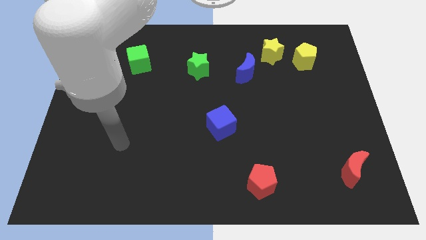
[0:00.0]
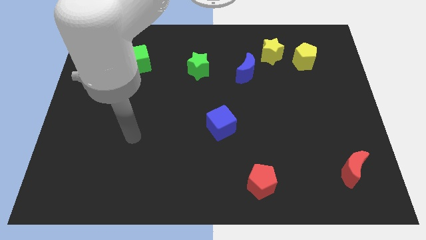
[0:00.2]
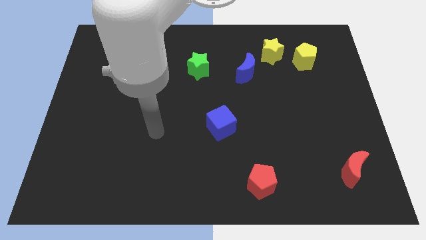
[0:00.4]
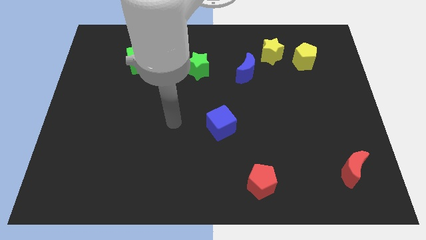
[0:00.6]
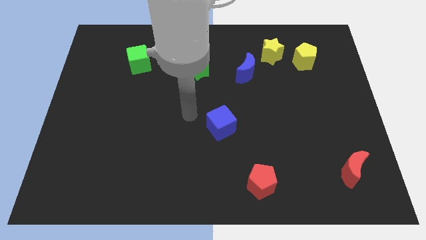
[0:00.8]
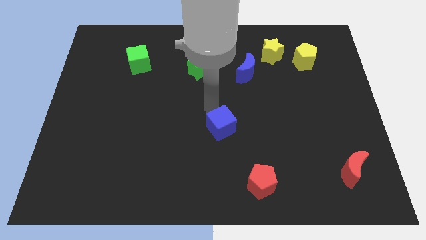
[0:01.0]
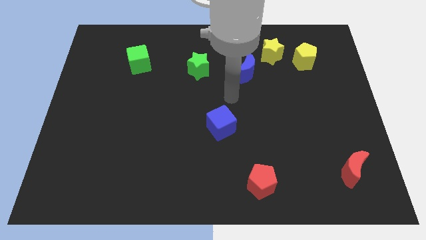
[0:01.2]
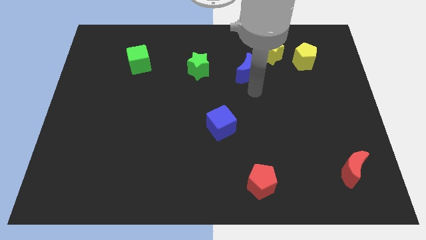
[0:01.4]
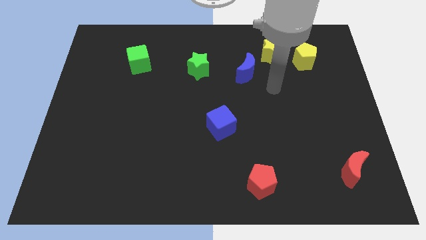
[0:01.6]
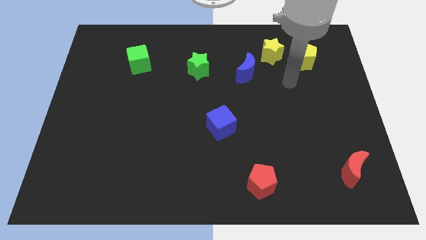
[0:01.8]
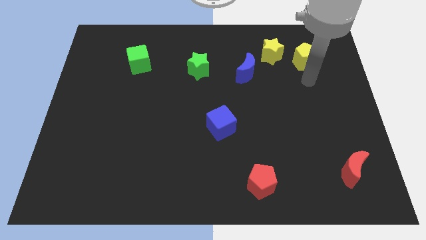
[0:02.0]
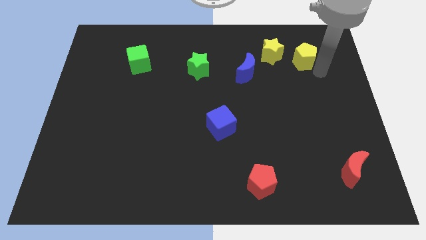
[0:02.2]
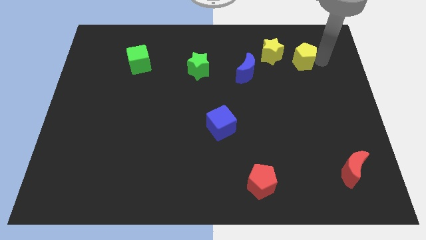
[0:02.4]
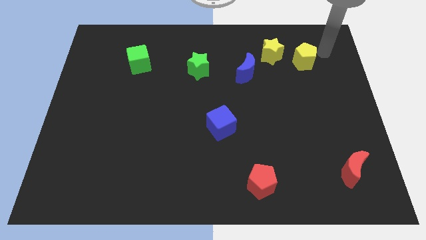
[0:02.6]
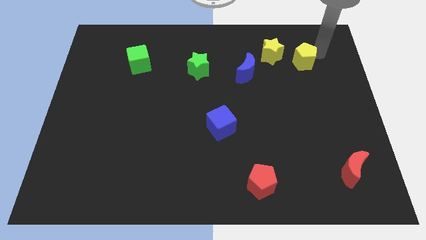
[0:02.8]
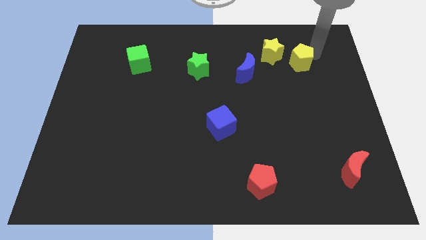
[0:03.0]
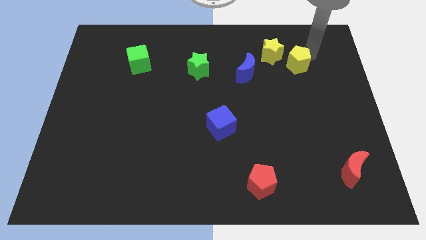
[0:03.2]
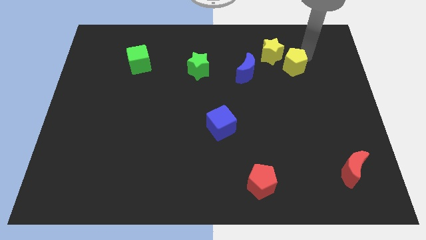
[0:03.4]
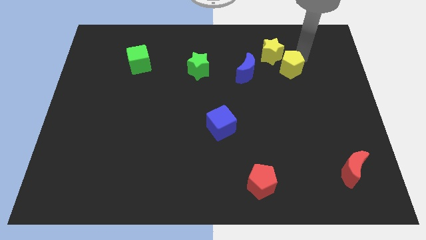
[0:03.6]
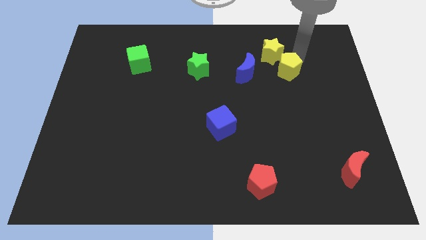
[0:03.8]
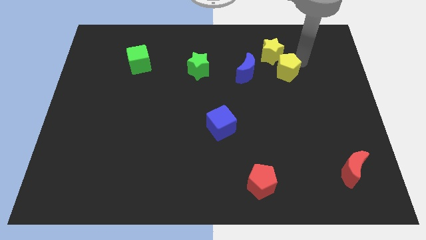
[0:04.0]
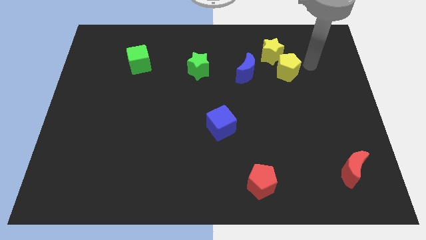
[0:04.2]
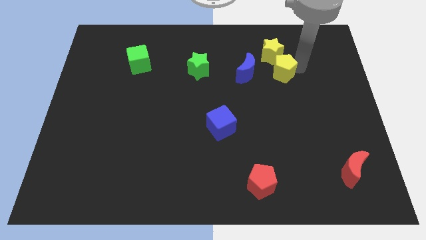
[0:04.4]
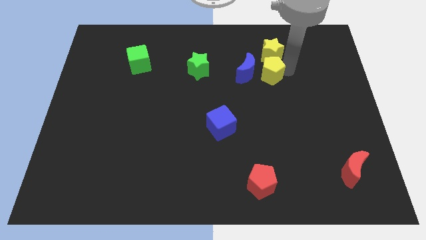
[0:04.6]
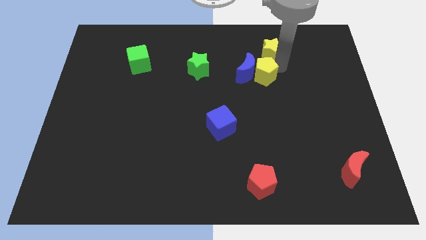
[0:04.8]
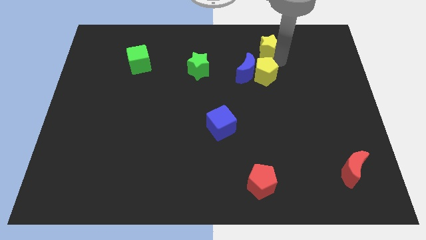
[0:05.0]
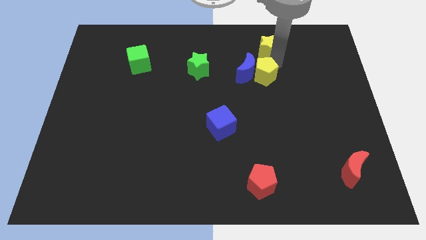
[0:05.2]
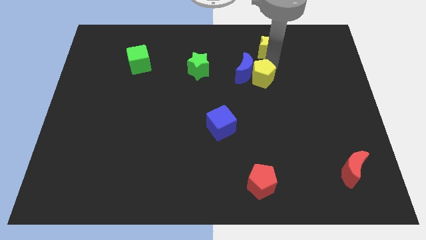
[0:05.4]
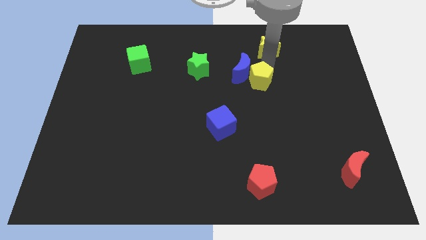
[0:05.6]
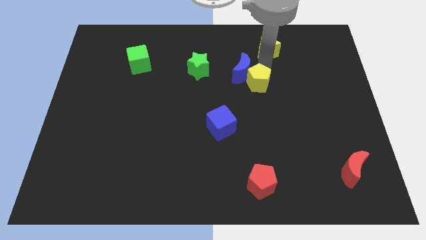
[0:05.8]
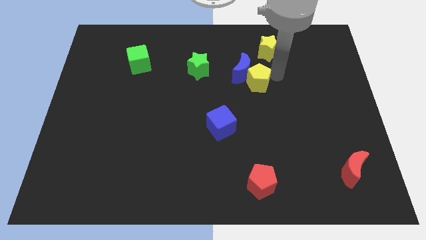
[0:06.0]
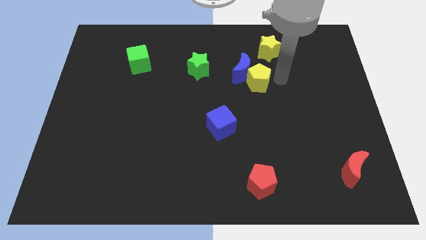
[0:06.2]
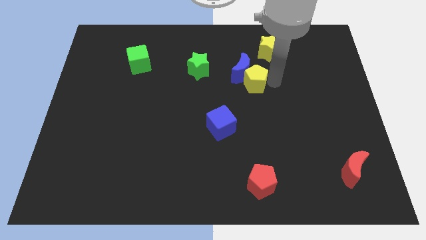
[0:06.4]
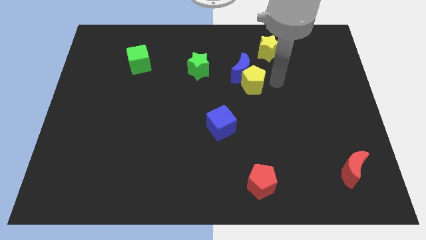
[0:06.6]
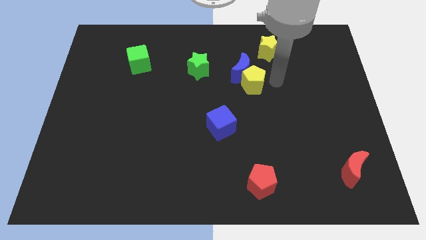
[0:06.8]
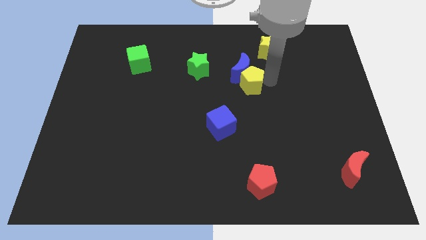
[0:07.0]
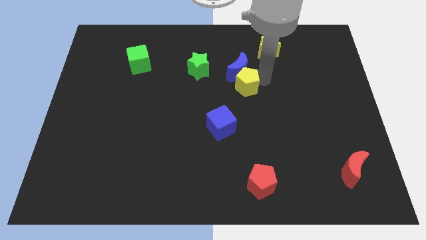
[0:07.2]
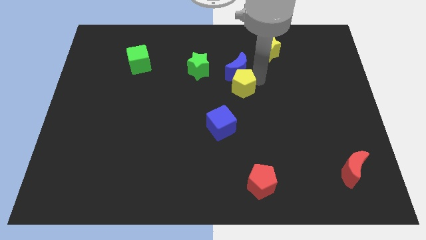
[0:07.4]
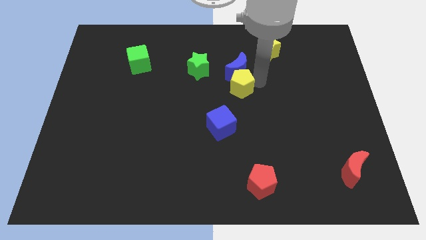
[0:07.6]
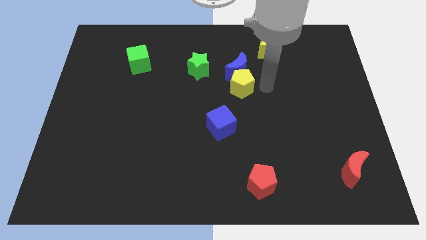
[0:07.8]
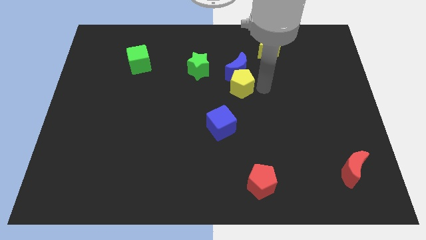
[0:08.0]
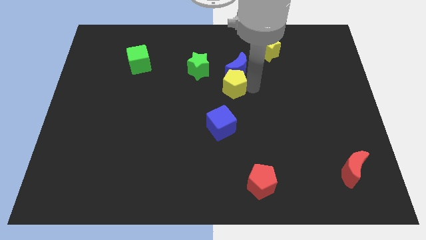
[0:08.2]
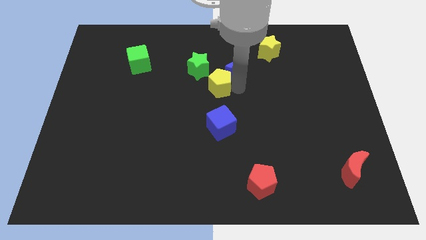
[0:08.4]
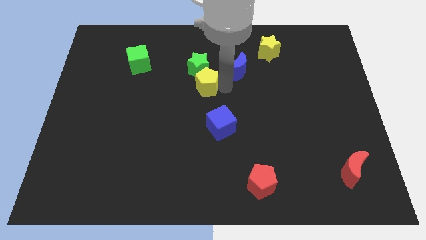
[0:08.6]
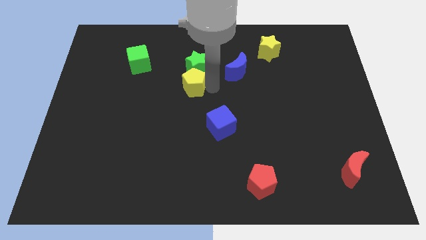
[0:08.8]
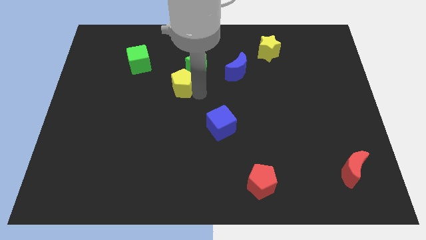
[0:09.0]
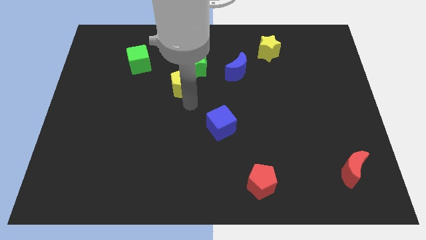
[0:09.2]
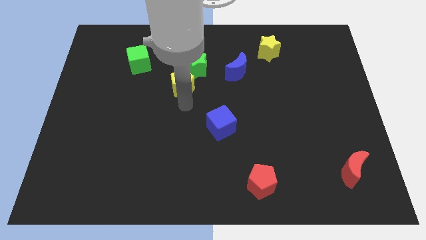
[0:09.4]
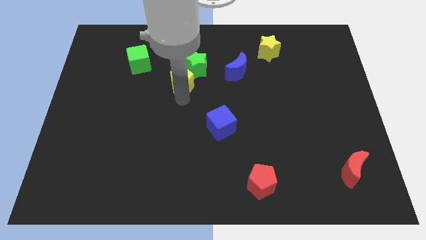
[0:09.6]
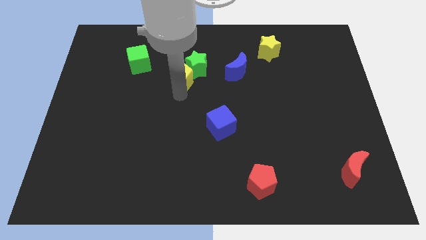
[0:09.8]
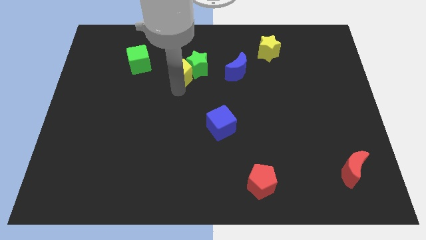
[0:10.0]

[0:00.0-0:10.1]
push the yellow pentagon right of the green cube

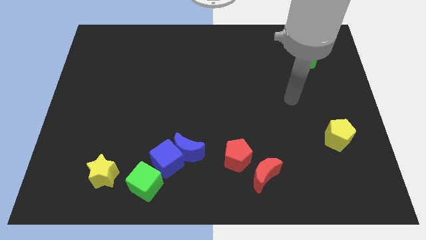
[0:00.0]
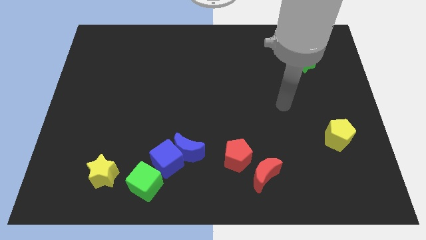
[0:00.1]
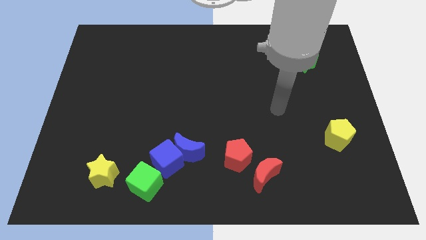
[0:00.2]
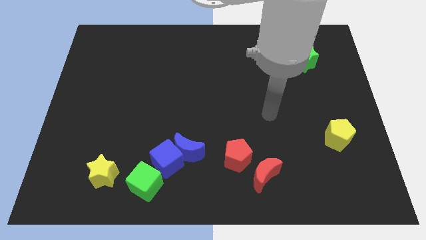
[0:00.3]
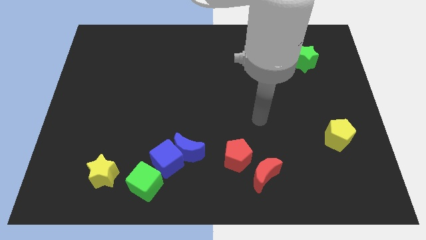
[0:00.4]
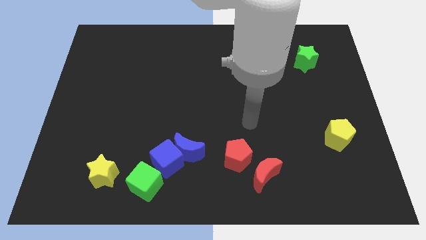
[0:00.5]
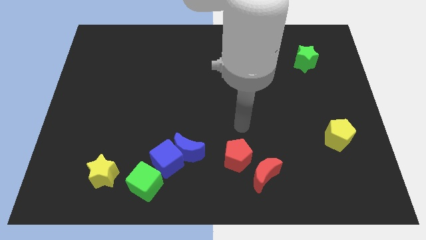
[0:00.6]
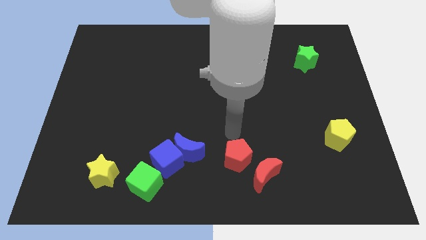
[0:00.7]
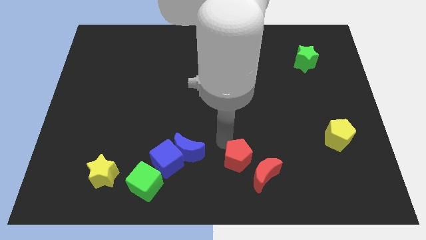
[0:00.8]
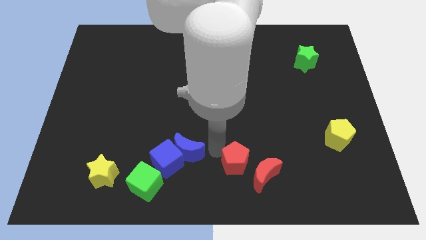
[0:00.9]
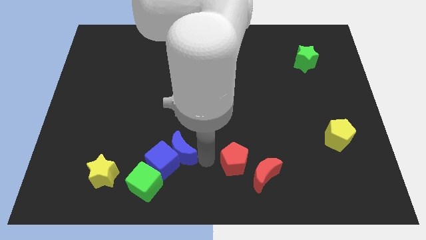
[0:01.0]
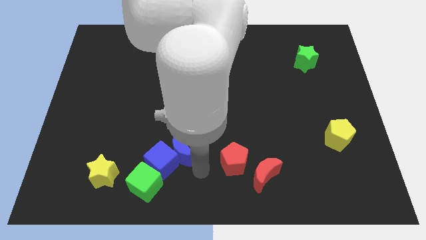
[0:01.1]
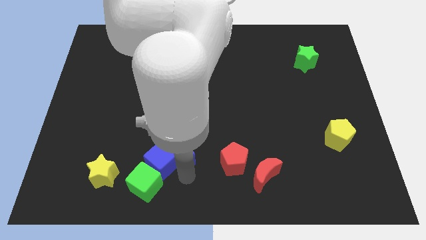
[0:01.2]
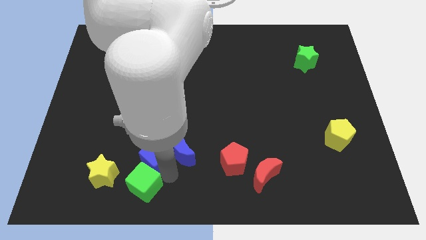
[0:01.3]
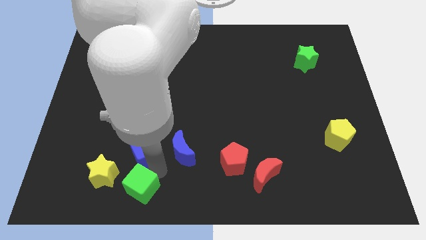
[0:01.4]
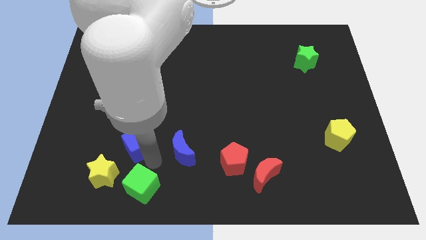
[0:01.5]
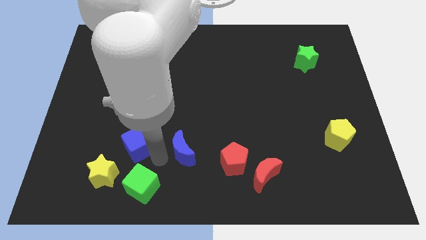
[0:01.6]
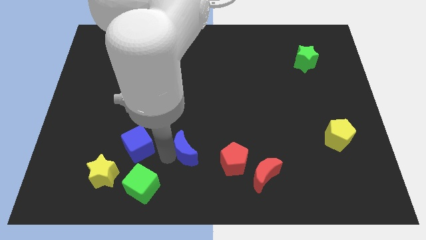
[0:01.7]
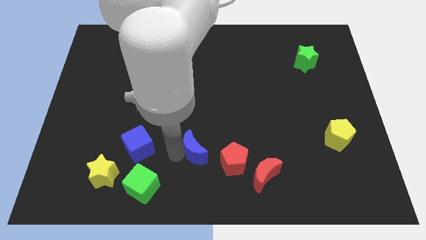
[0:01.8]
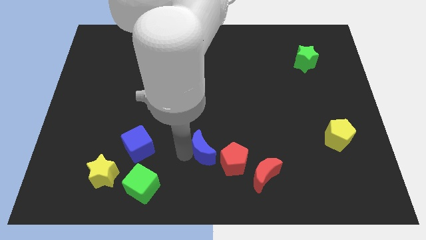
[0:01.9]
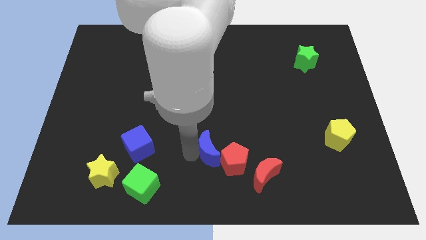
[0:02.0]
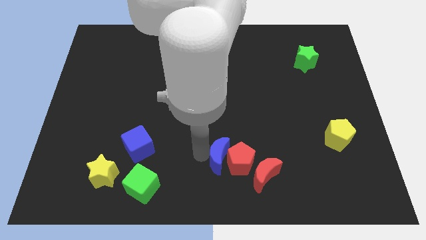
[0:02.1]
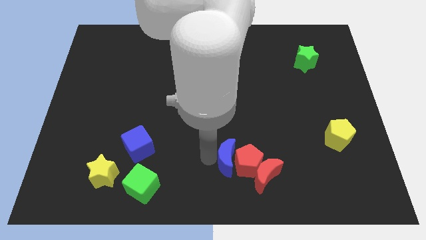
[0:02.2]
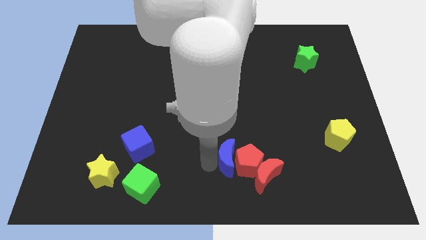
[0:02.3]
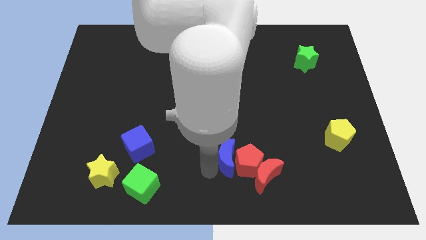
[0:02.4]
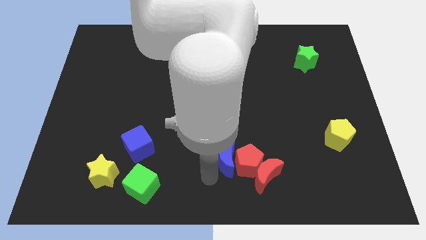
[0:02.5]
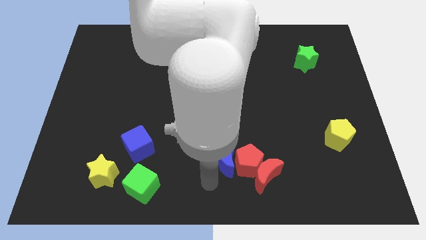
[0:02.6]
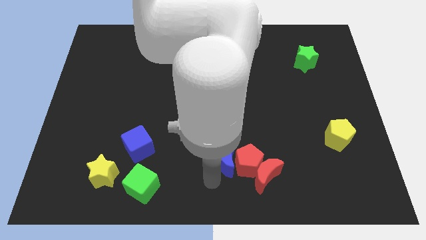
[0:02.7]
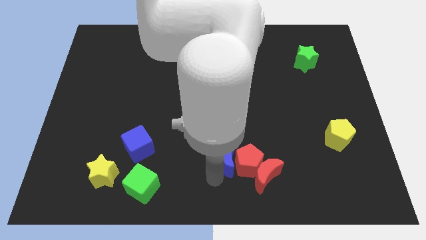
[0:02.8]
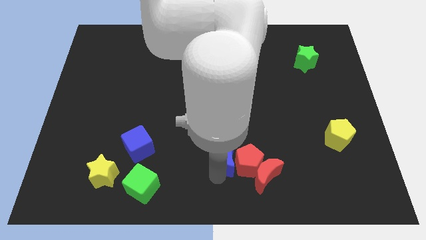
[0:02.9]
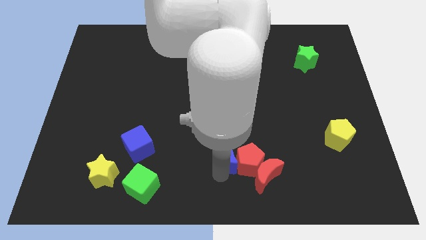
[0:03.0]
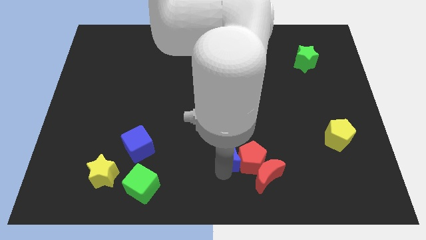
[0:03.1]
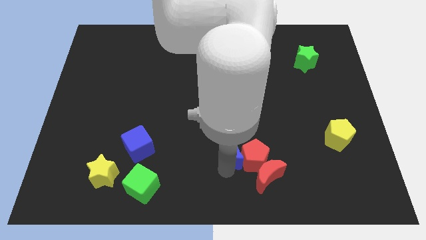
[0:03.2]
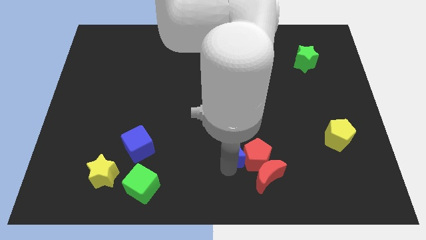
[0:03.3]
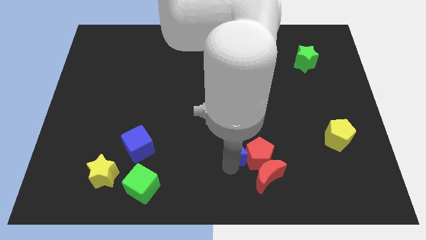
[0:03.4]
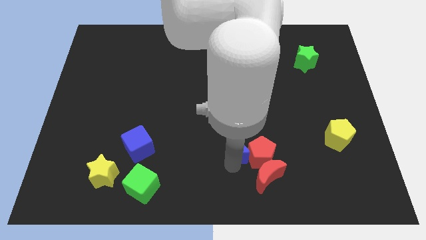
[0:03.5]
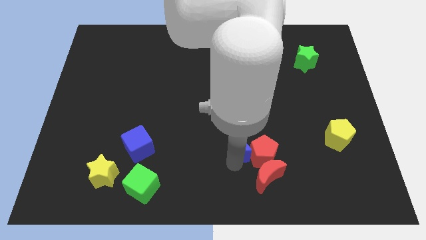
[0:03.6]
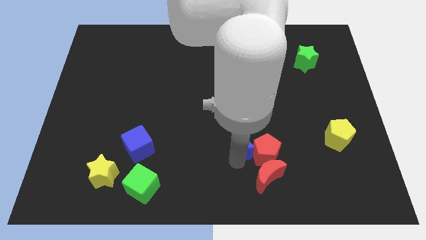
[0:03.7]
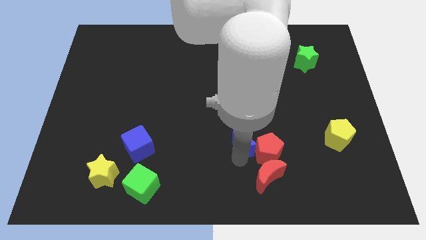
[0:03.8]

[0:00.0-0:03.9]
put the blue moon to the top of the red moon
